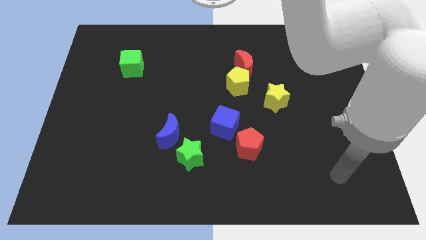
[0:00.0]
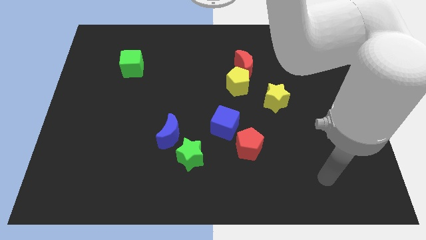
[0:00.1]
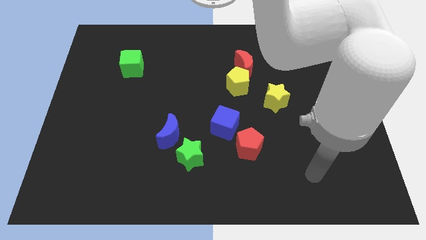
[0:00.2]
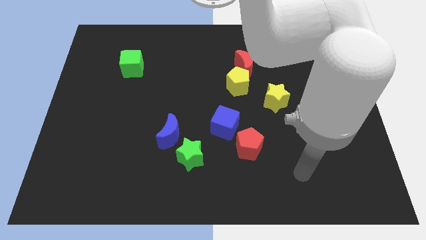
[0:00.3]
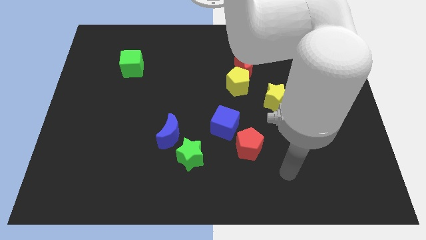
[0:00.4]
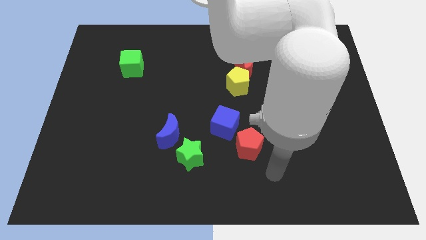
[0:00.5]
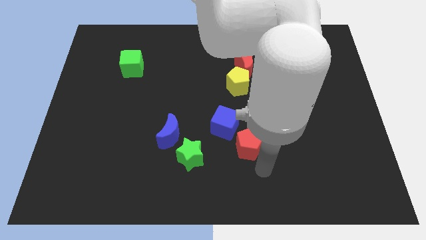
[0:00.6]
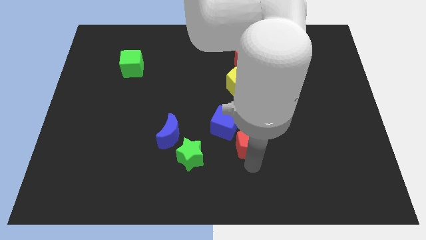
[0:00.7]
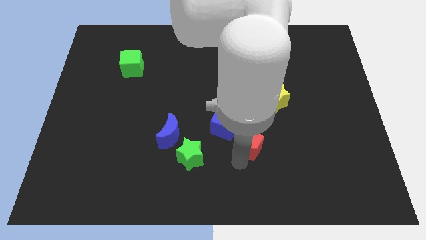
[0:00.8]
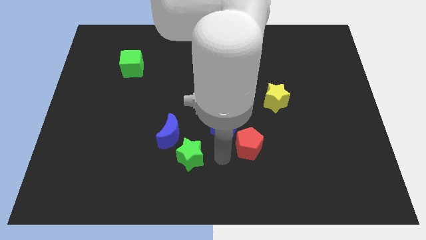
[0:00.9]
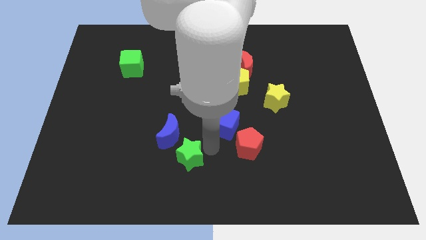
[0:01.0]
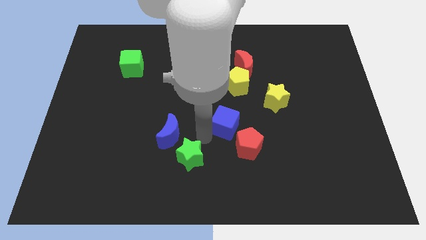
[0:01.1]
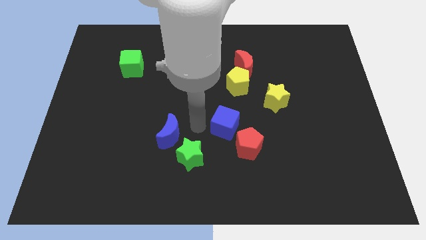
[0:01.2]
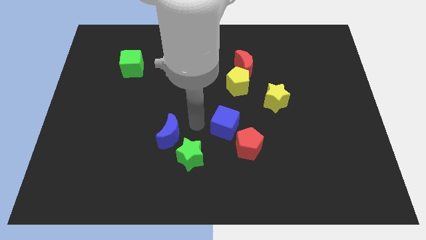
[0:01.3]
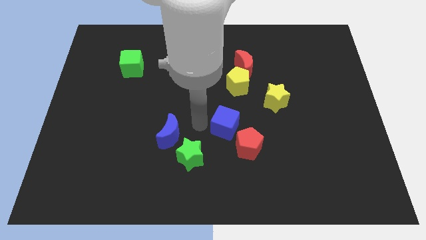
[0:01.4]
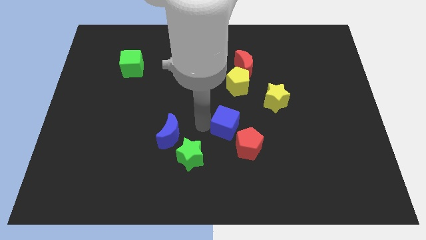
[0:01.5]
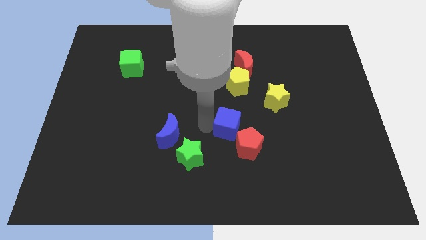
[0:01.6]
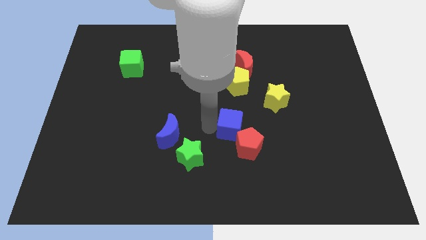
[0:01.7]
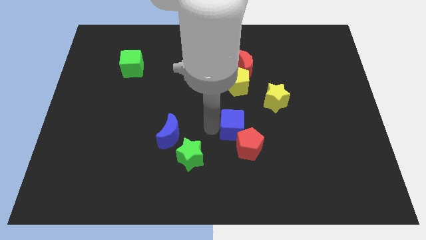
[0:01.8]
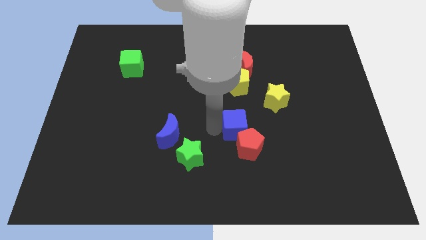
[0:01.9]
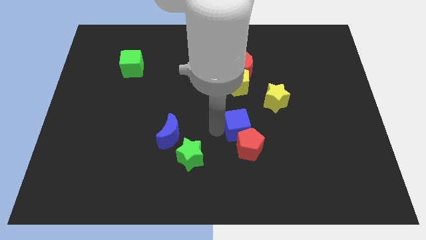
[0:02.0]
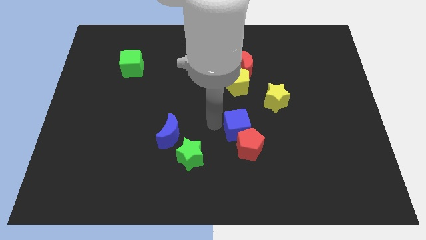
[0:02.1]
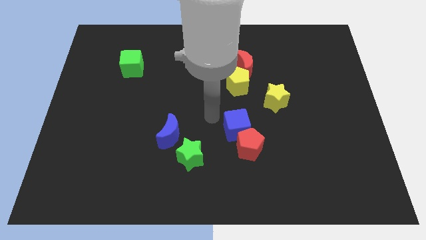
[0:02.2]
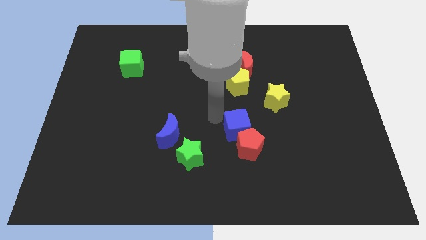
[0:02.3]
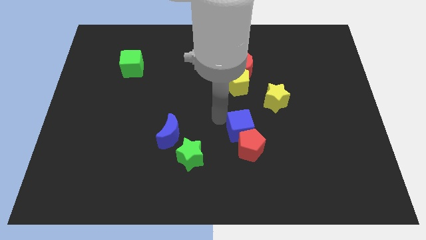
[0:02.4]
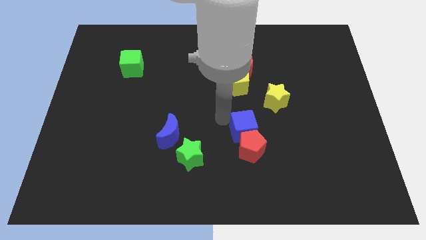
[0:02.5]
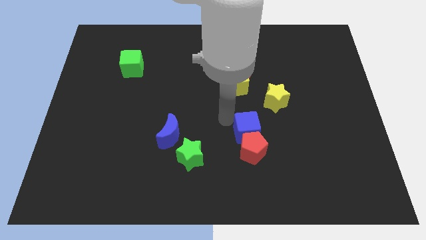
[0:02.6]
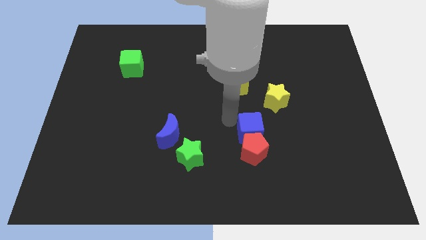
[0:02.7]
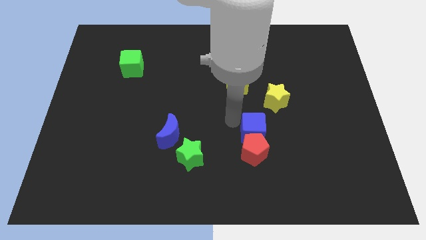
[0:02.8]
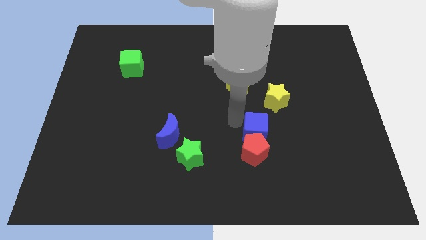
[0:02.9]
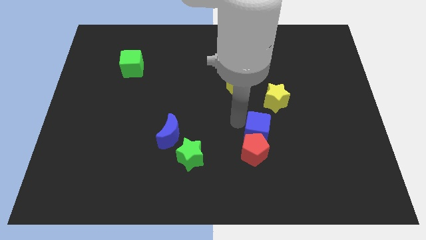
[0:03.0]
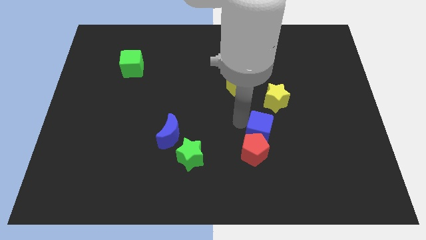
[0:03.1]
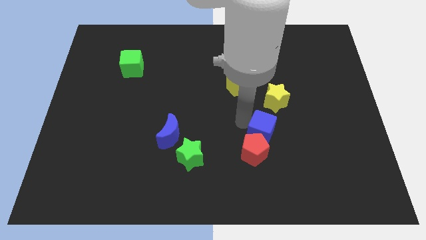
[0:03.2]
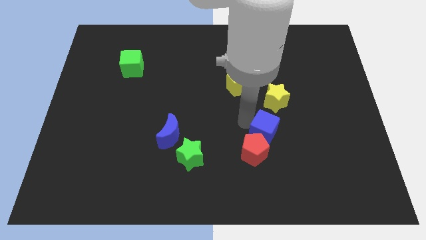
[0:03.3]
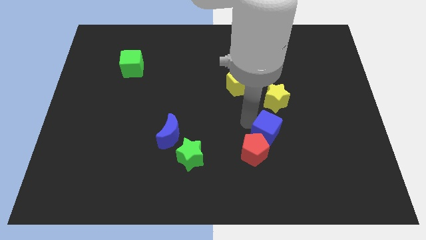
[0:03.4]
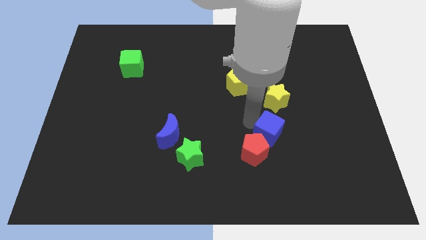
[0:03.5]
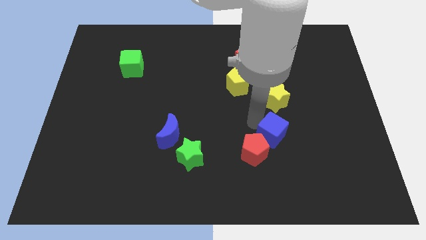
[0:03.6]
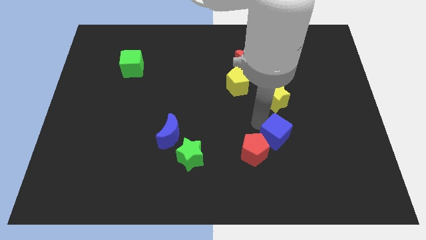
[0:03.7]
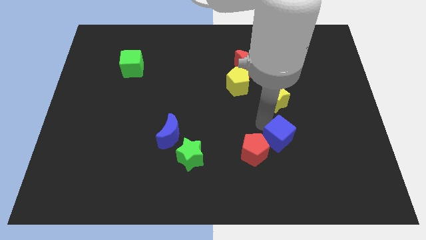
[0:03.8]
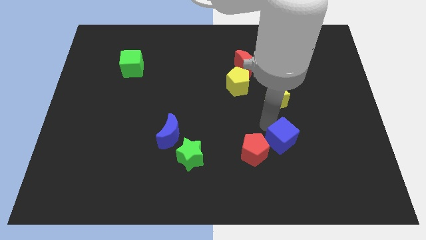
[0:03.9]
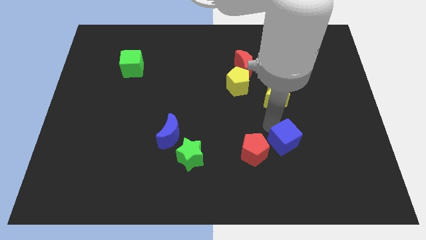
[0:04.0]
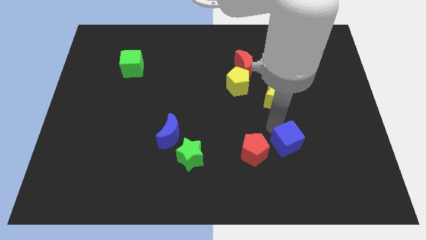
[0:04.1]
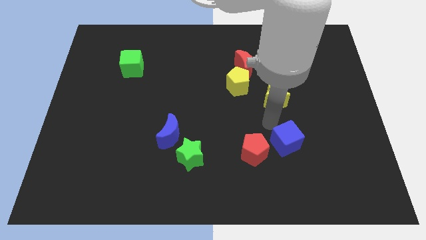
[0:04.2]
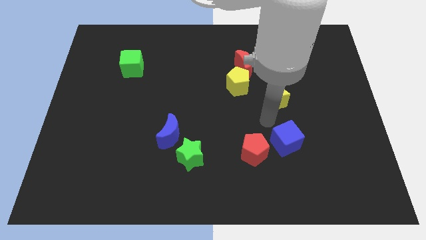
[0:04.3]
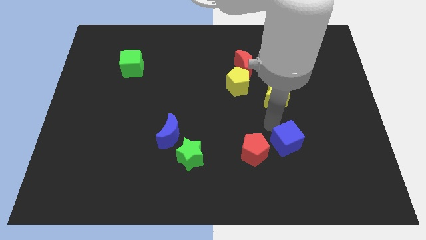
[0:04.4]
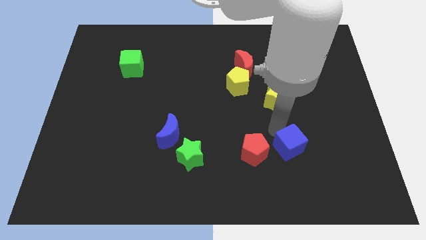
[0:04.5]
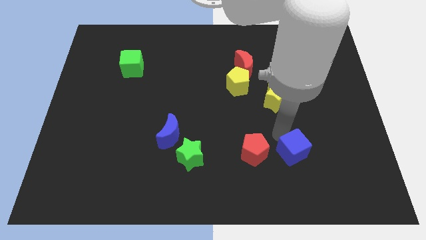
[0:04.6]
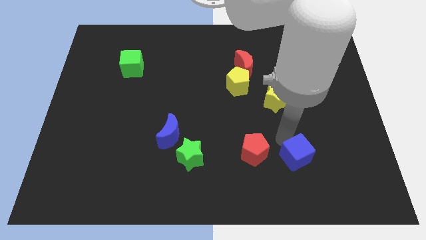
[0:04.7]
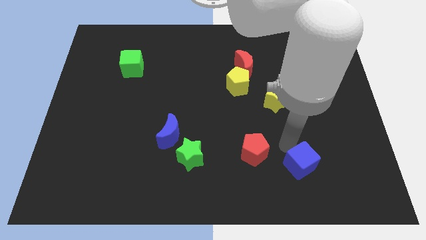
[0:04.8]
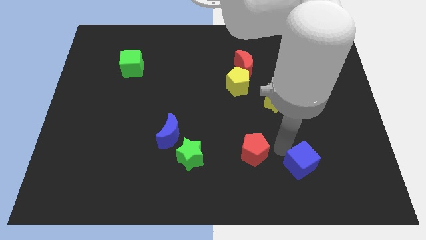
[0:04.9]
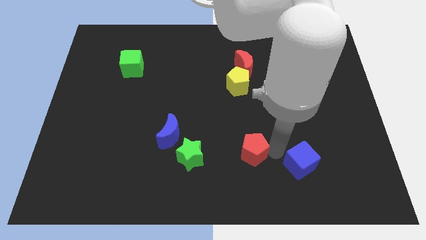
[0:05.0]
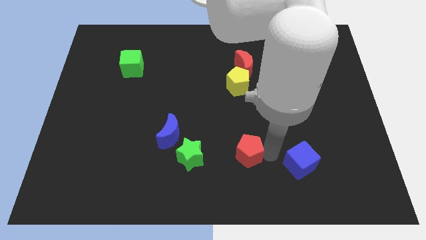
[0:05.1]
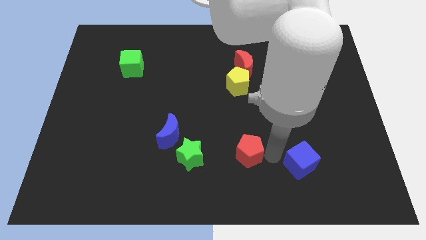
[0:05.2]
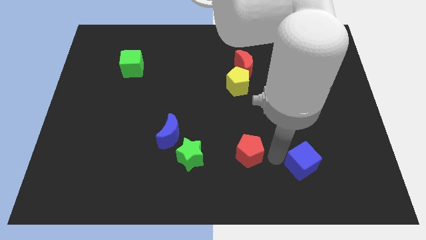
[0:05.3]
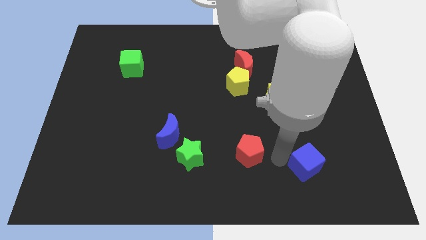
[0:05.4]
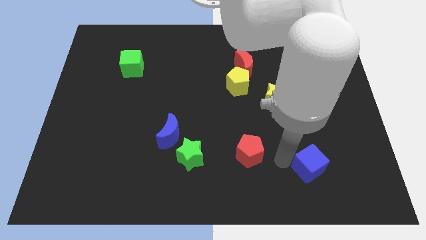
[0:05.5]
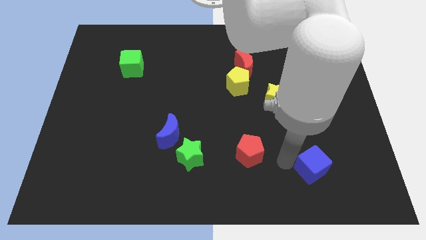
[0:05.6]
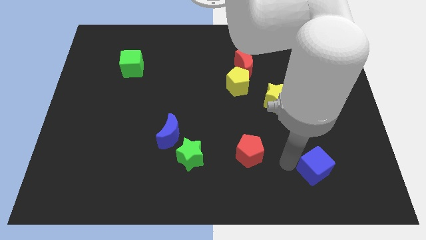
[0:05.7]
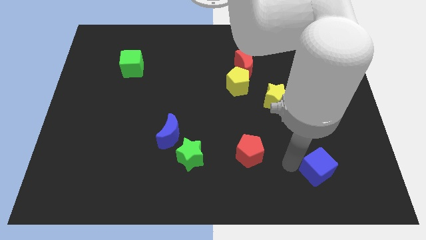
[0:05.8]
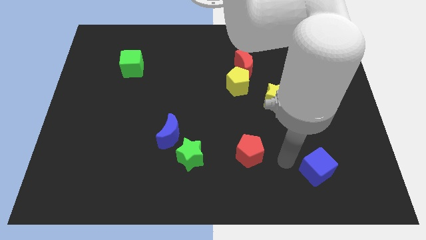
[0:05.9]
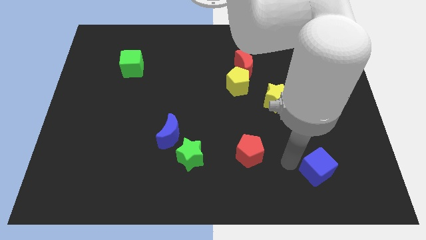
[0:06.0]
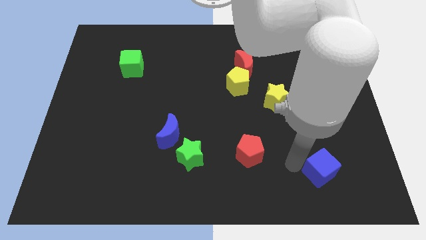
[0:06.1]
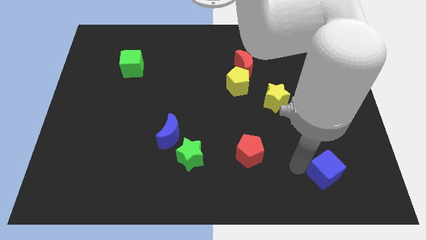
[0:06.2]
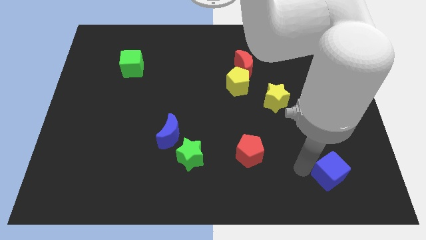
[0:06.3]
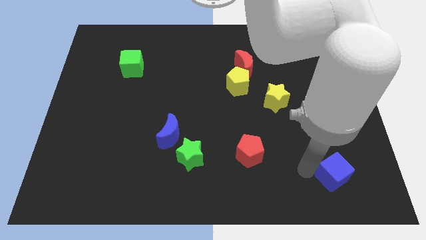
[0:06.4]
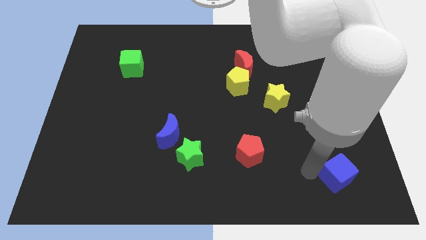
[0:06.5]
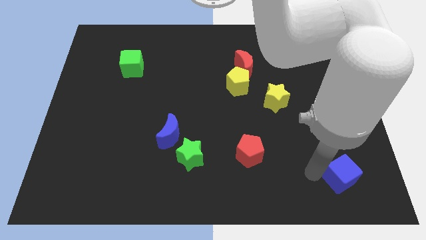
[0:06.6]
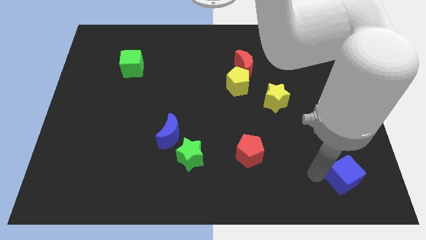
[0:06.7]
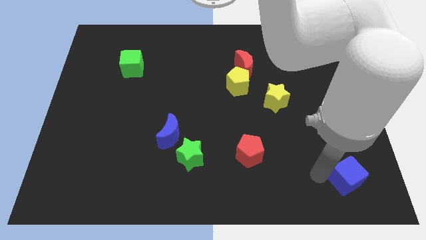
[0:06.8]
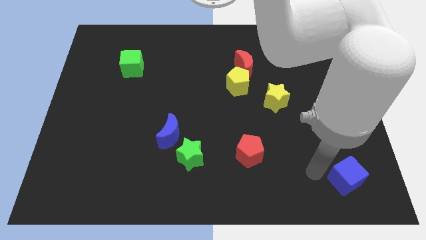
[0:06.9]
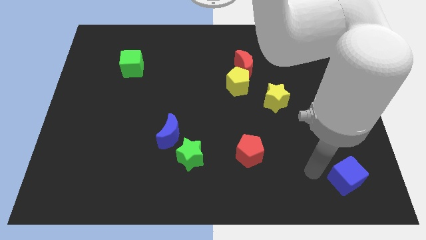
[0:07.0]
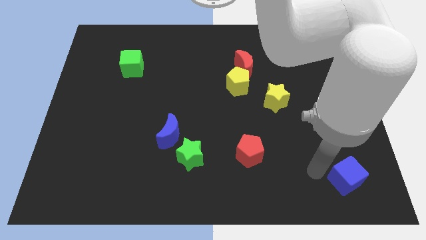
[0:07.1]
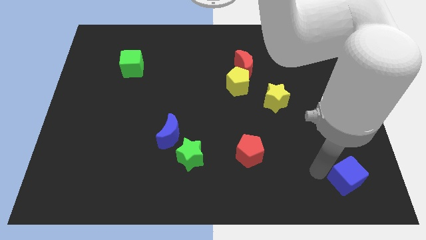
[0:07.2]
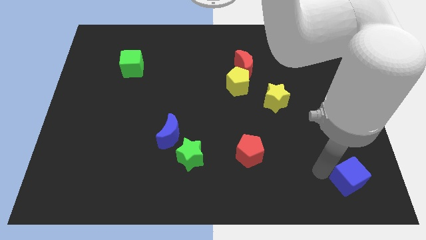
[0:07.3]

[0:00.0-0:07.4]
put the blue cube to the bottom right corner
